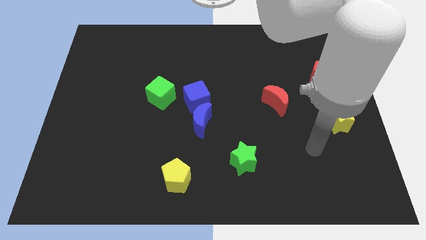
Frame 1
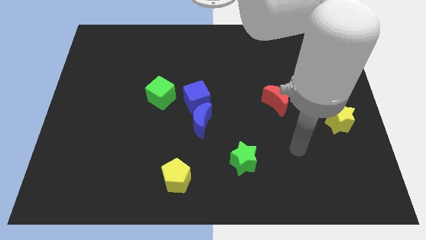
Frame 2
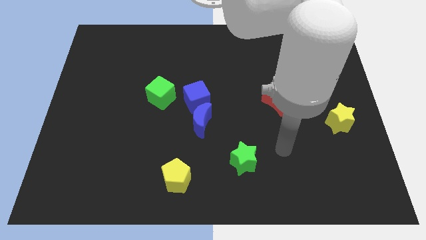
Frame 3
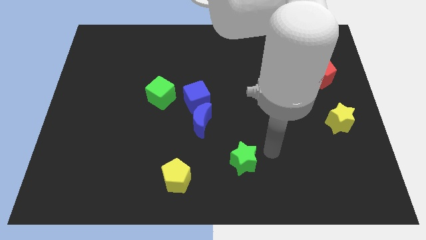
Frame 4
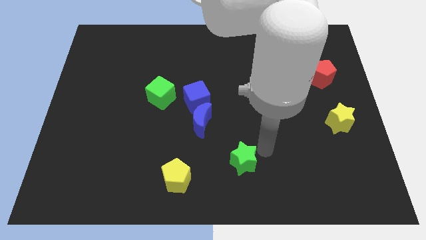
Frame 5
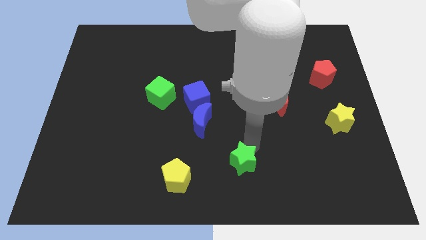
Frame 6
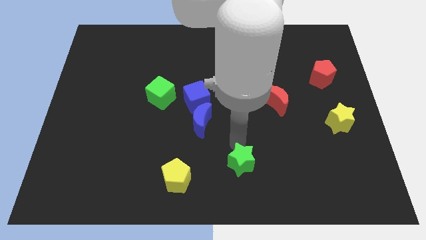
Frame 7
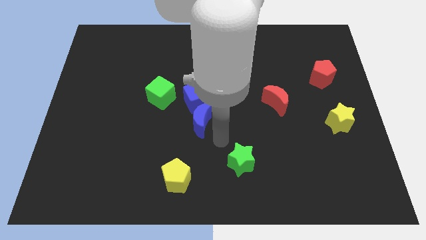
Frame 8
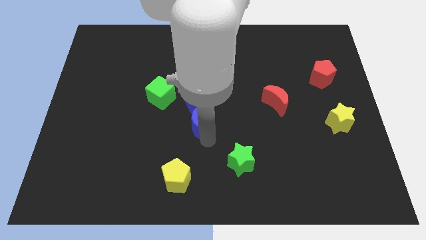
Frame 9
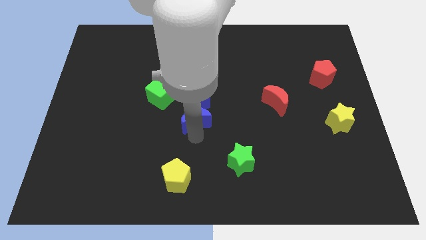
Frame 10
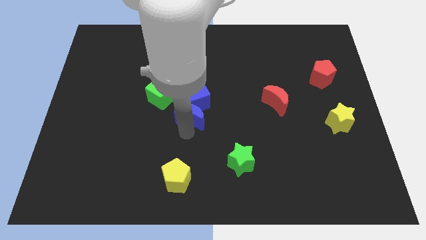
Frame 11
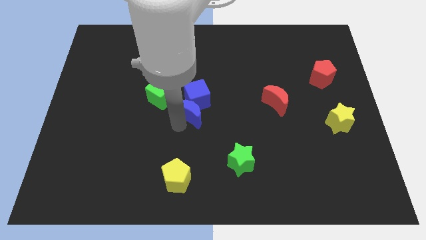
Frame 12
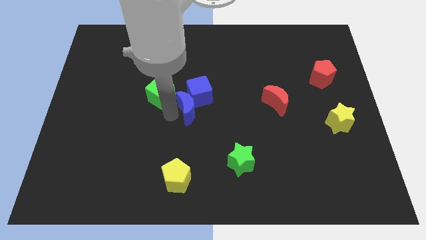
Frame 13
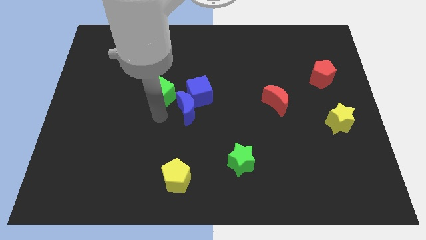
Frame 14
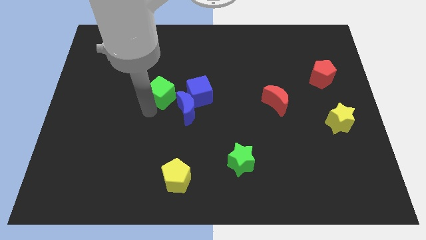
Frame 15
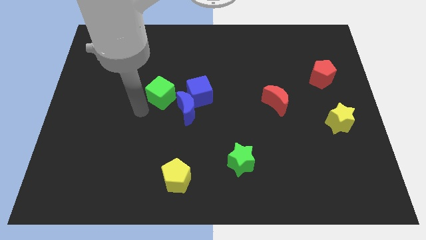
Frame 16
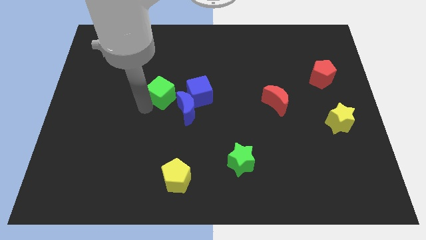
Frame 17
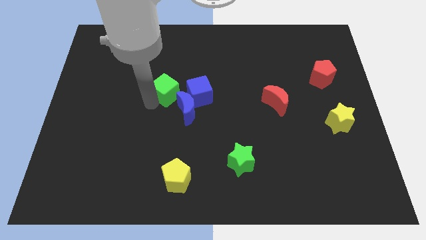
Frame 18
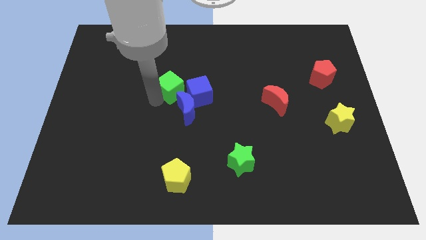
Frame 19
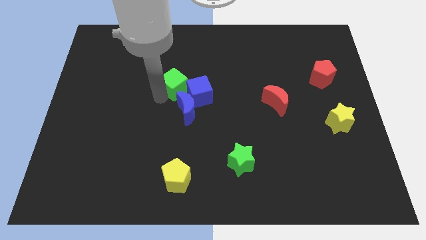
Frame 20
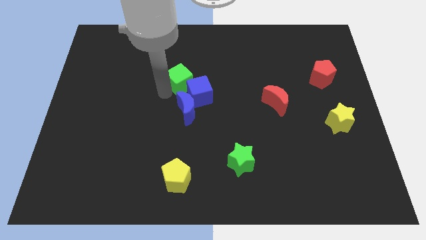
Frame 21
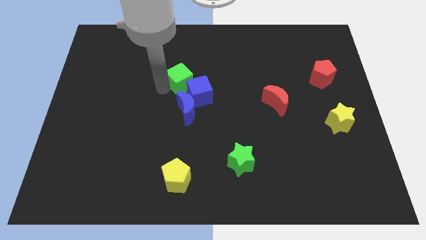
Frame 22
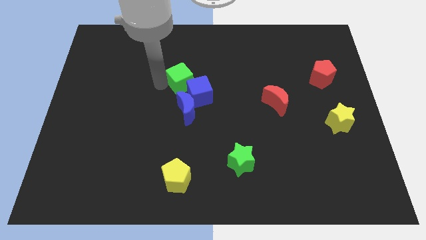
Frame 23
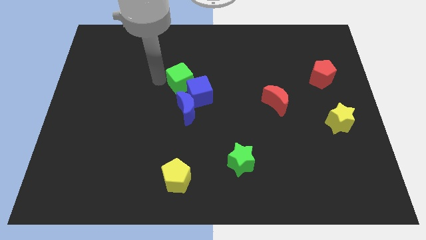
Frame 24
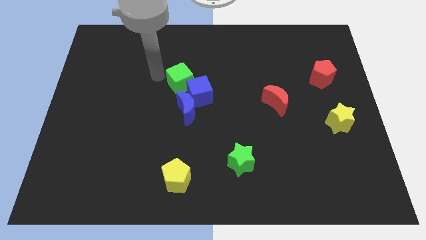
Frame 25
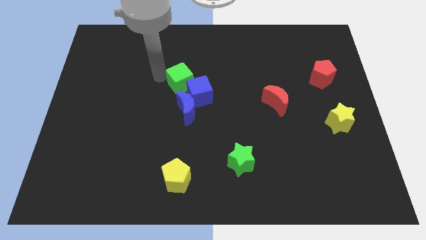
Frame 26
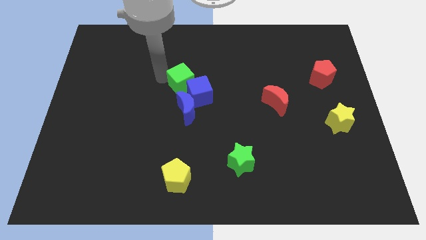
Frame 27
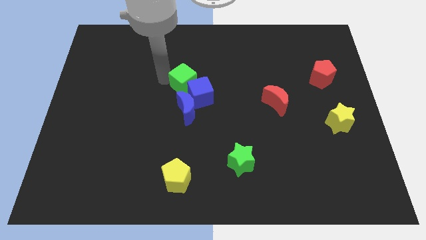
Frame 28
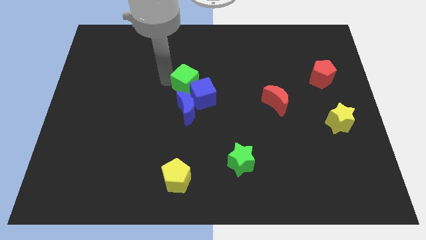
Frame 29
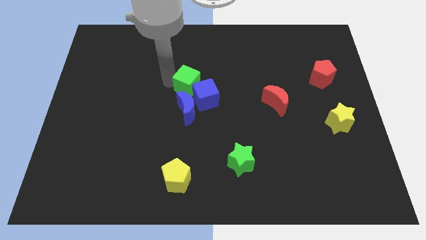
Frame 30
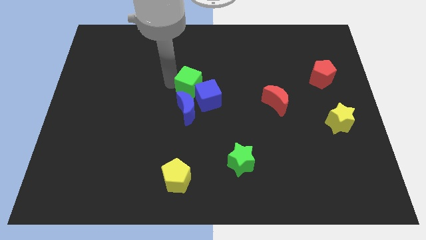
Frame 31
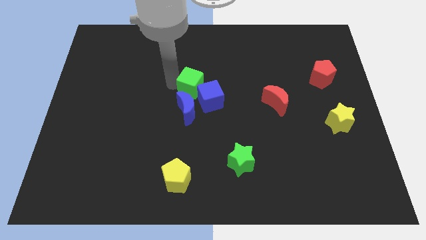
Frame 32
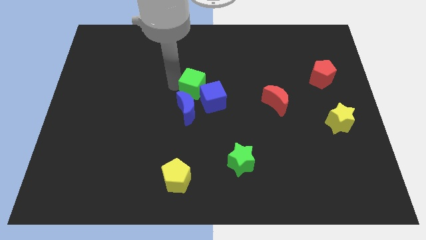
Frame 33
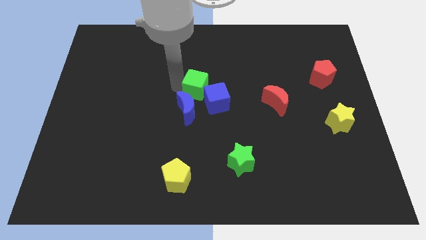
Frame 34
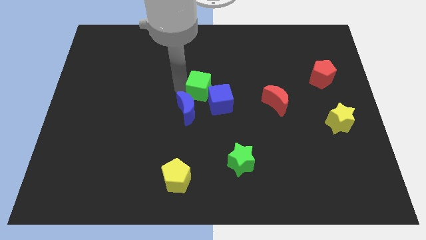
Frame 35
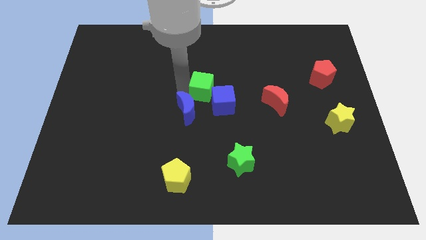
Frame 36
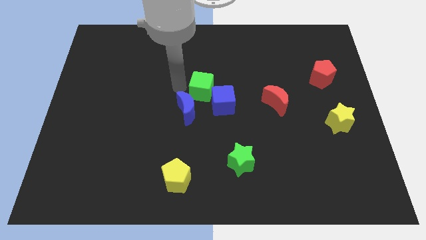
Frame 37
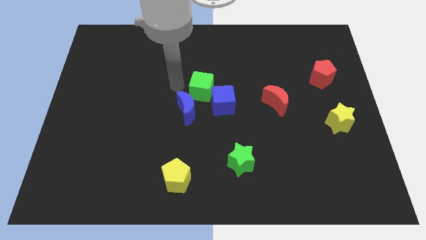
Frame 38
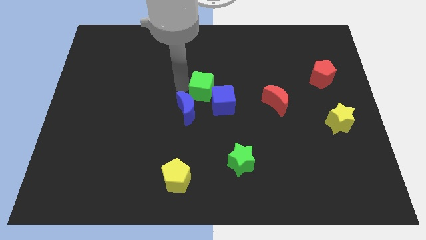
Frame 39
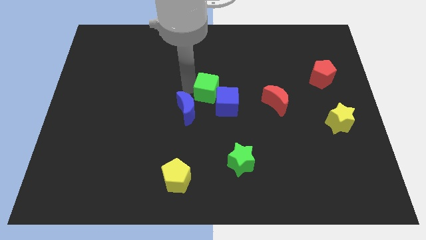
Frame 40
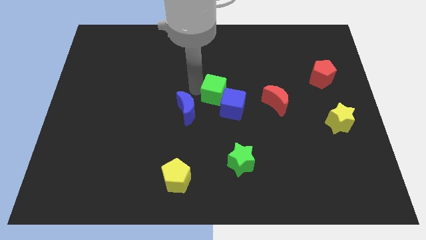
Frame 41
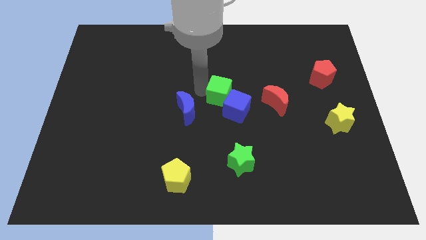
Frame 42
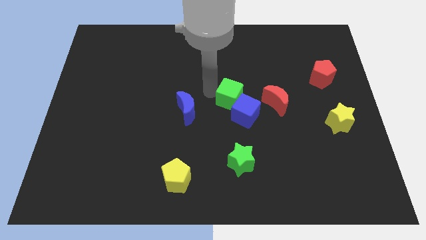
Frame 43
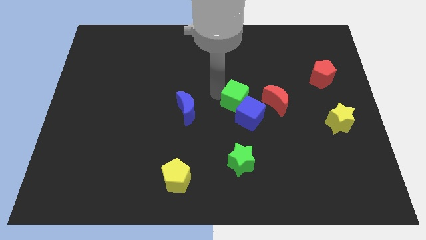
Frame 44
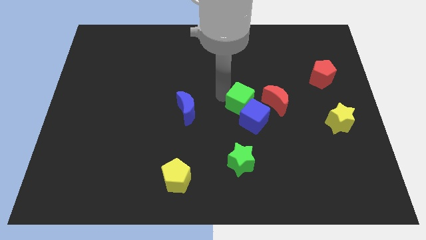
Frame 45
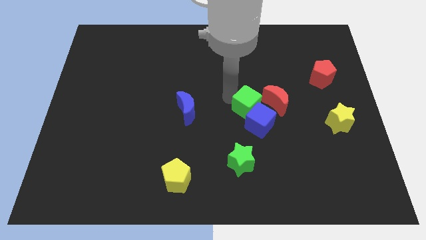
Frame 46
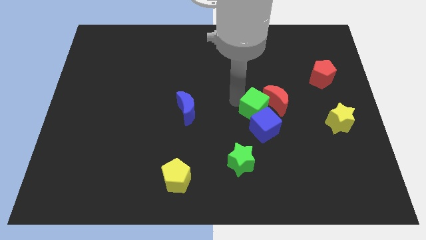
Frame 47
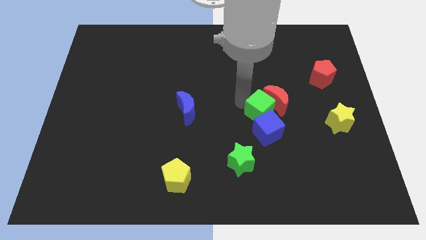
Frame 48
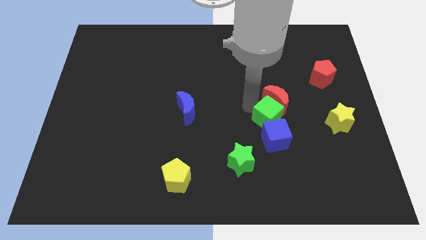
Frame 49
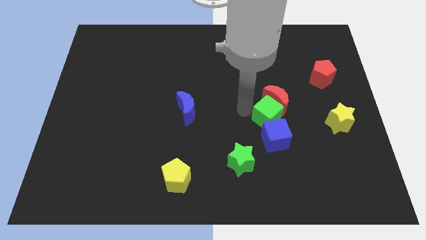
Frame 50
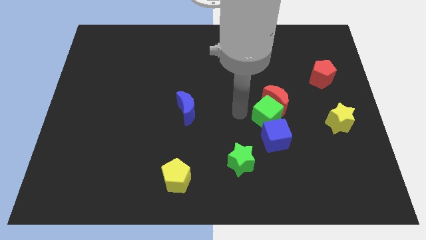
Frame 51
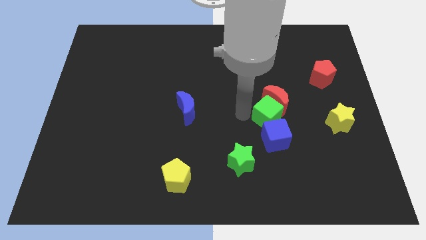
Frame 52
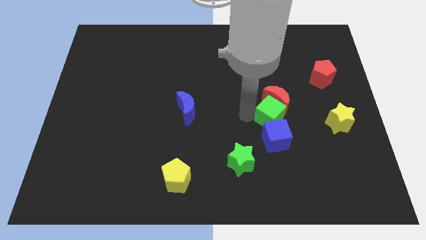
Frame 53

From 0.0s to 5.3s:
put the green cube diagonally down and to the right of the red moon

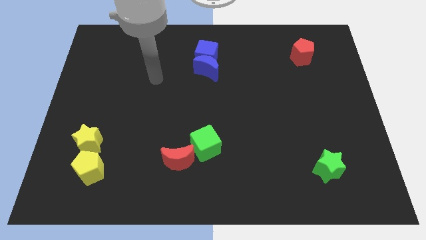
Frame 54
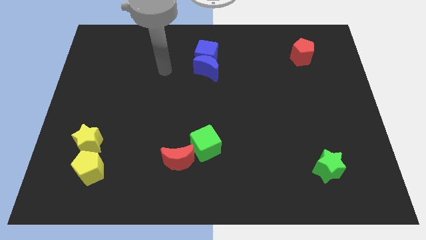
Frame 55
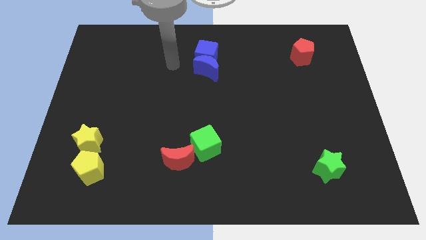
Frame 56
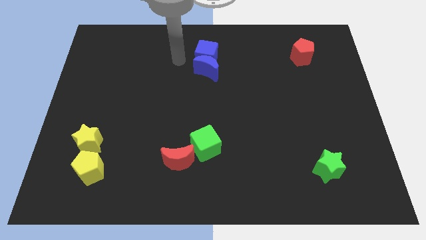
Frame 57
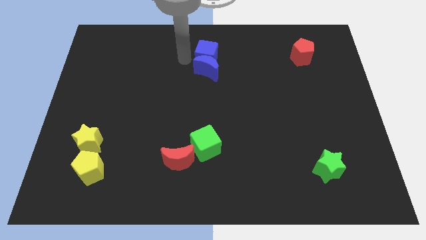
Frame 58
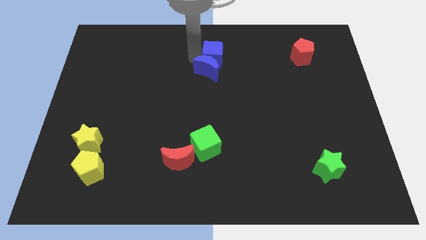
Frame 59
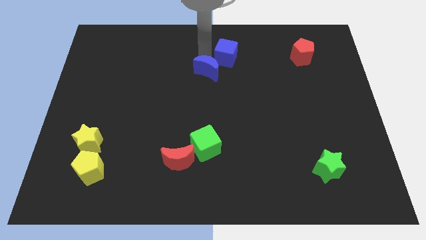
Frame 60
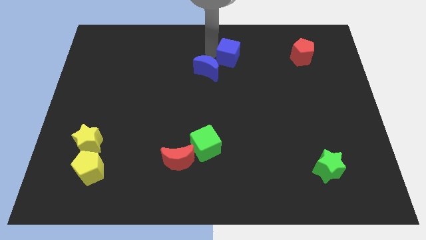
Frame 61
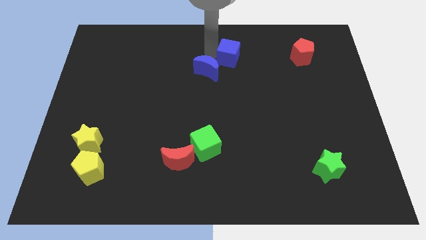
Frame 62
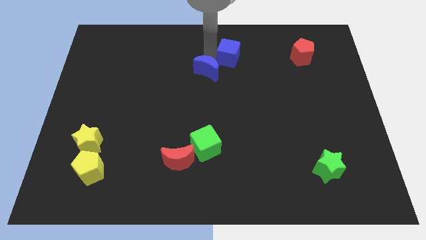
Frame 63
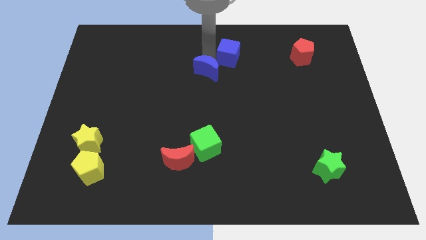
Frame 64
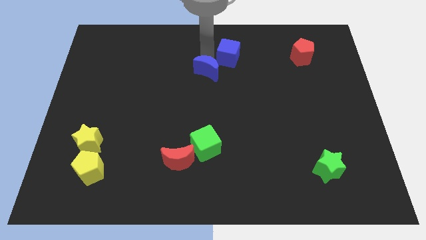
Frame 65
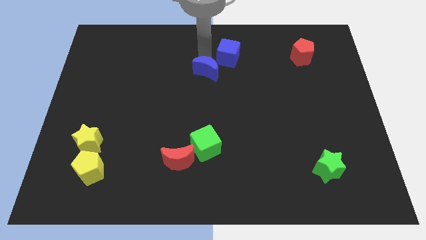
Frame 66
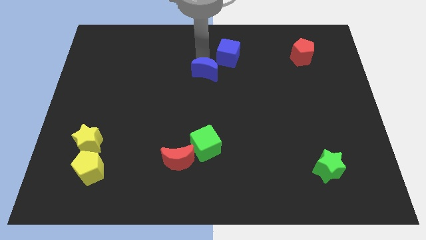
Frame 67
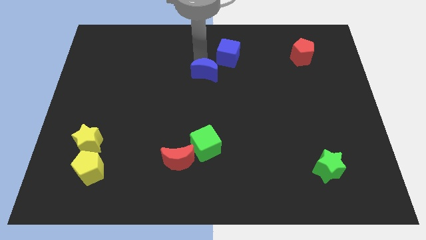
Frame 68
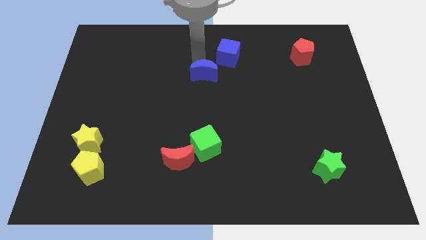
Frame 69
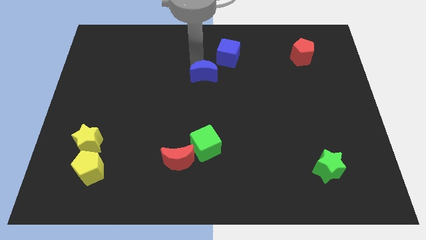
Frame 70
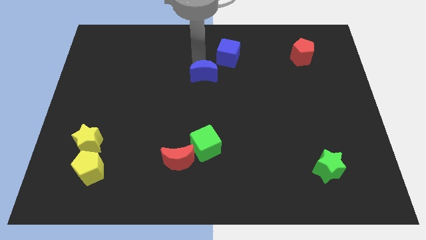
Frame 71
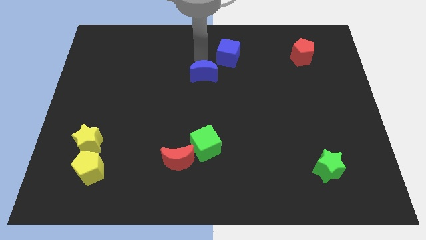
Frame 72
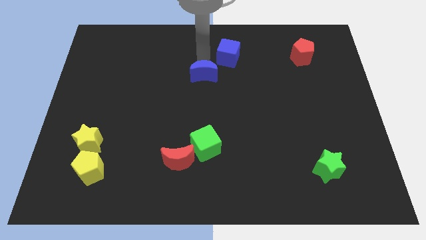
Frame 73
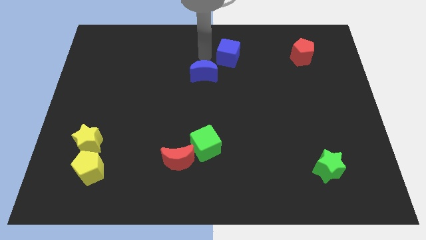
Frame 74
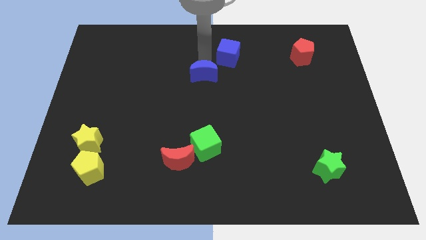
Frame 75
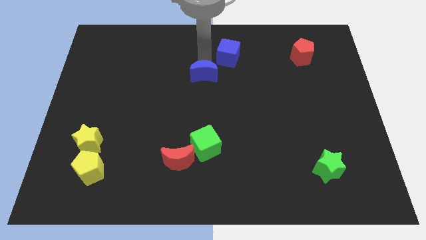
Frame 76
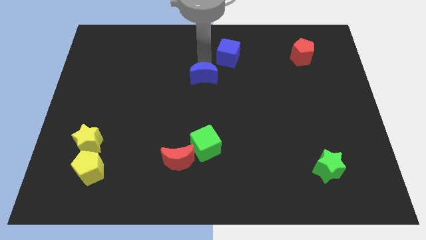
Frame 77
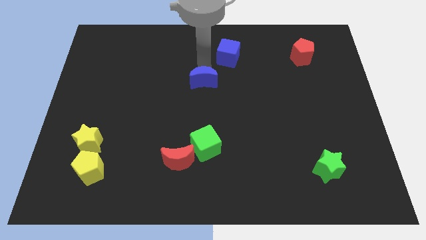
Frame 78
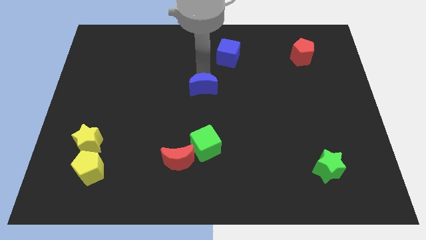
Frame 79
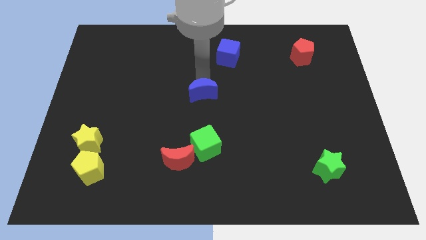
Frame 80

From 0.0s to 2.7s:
slide the blue moon to the top of the green cube
